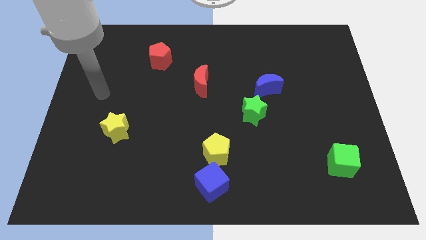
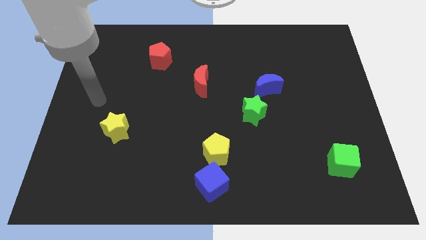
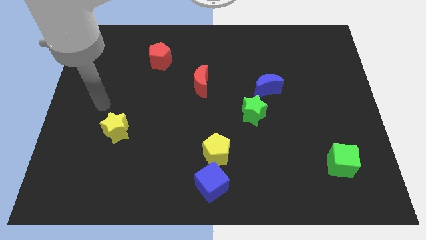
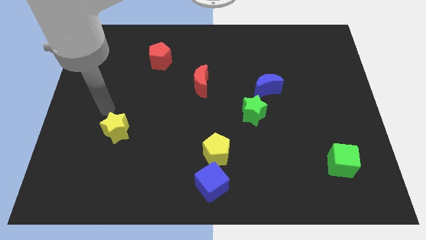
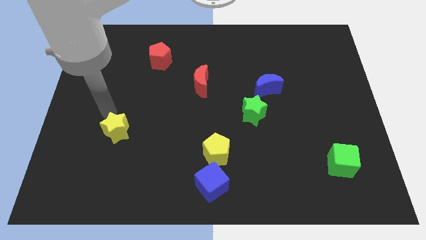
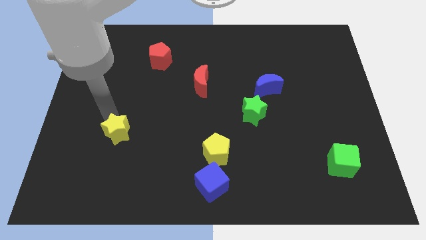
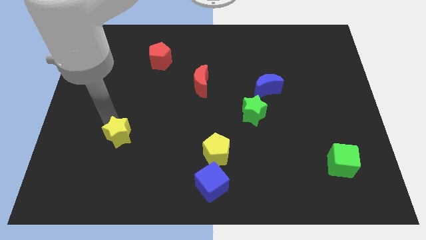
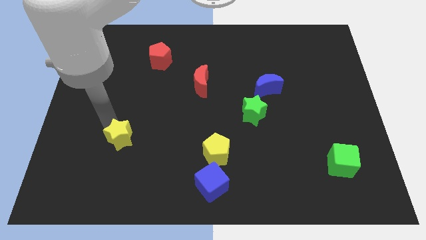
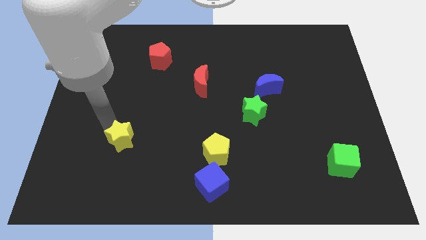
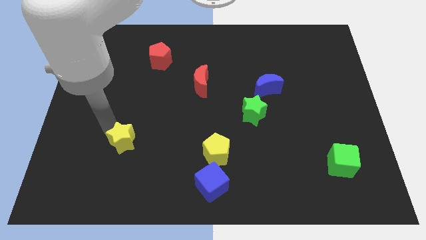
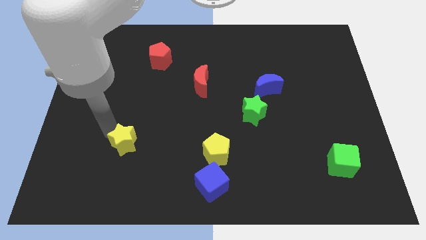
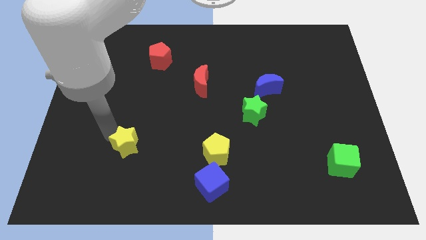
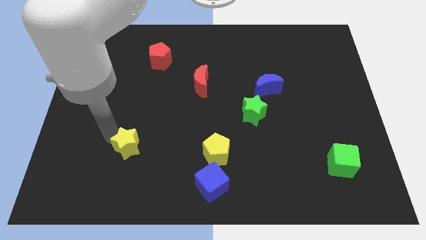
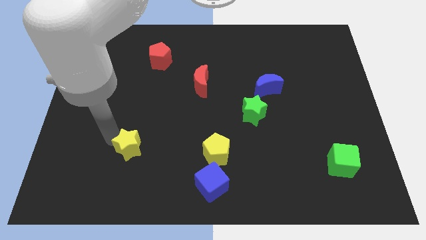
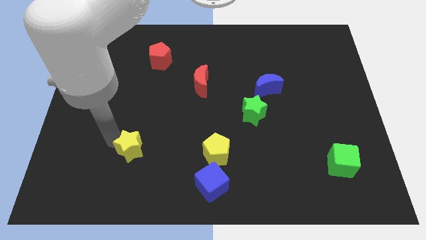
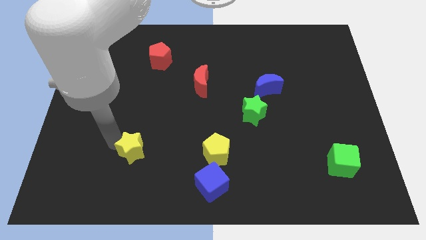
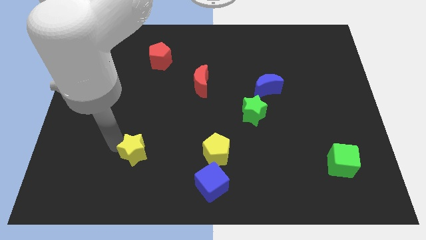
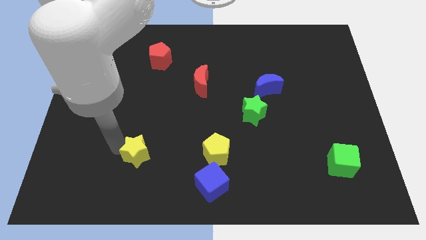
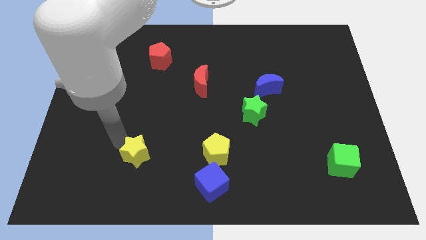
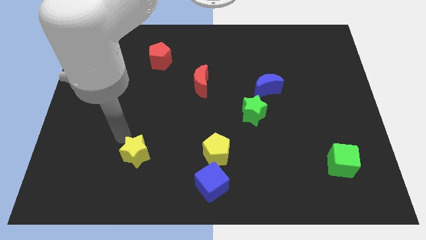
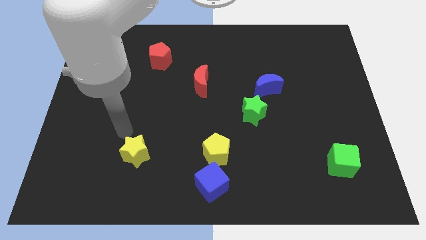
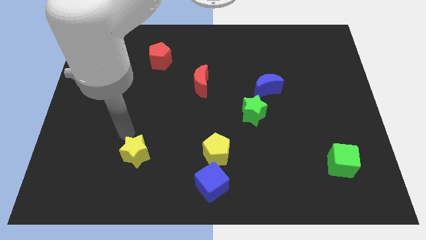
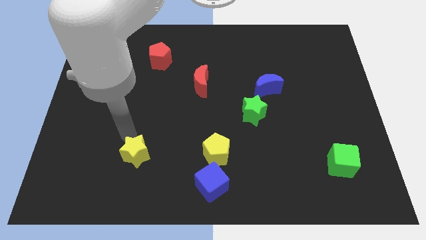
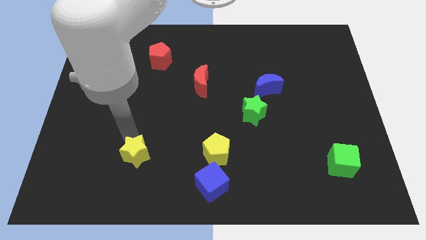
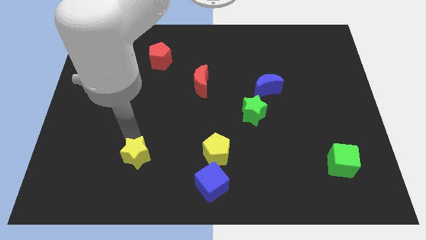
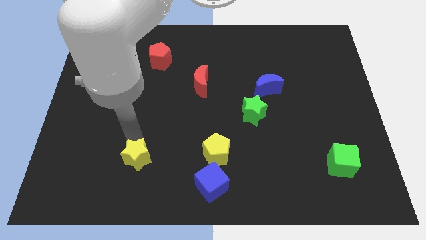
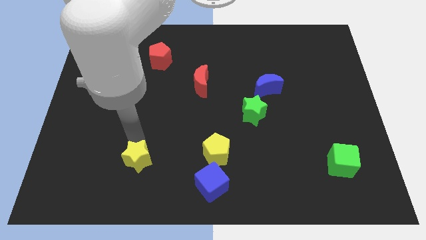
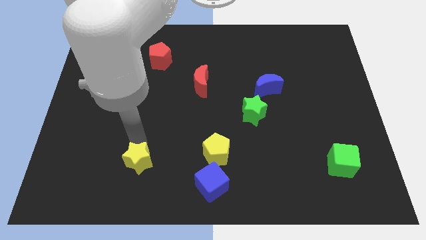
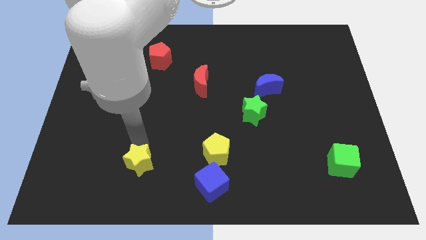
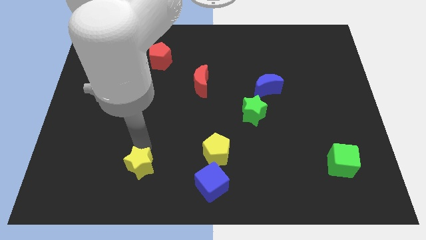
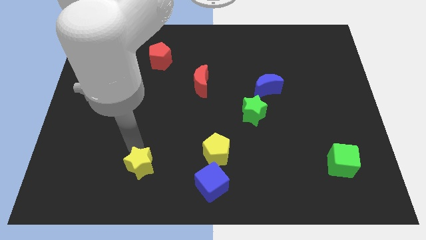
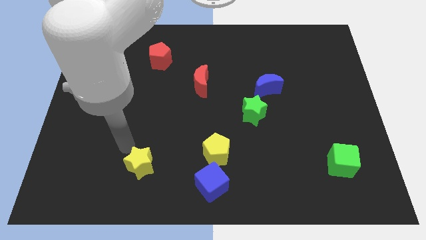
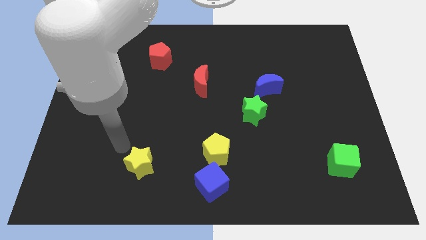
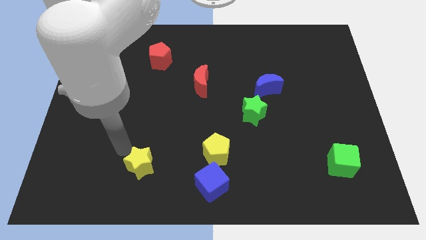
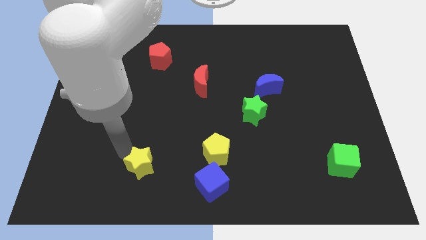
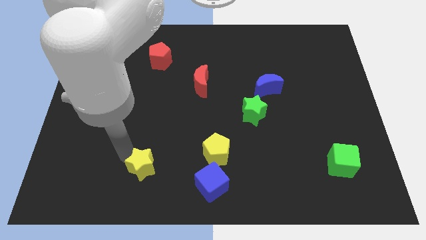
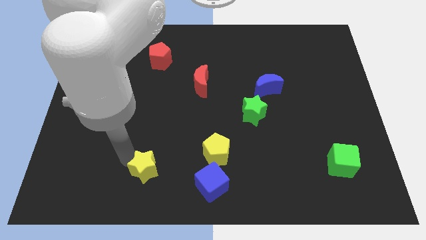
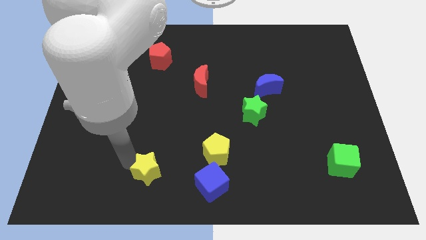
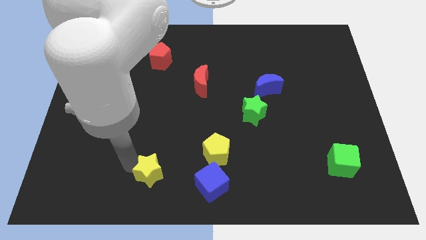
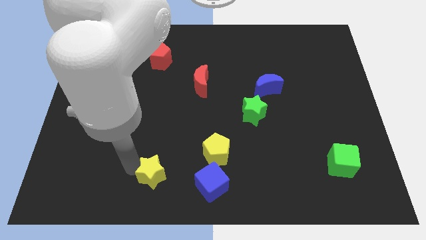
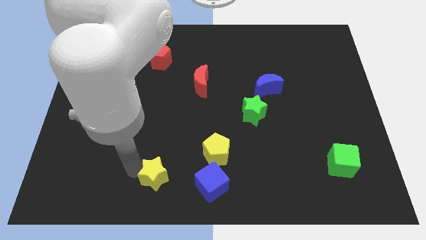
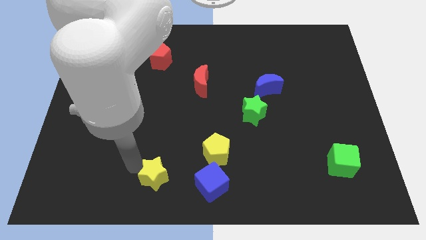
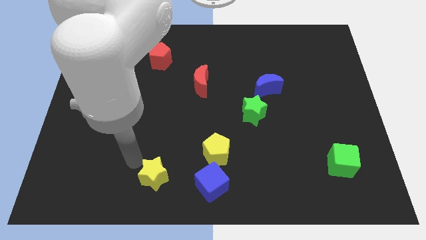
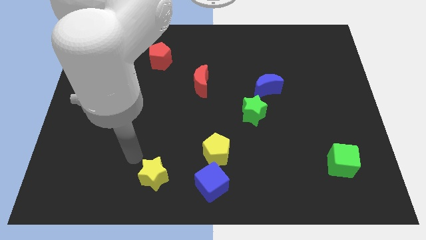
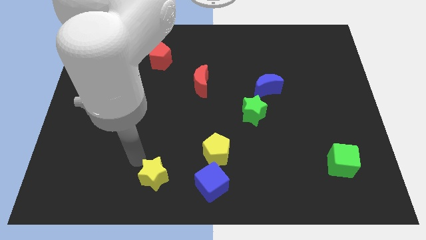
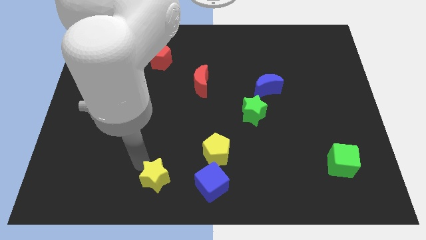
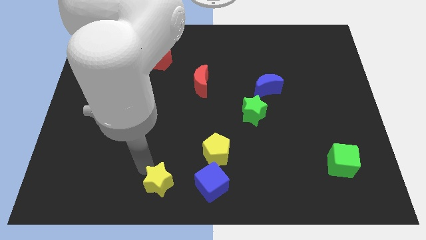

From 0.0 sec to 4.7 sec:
put the yellow star to the bottom side

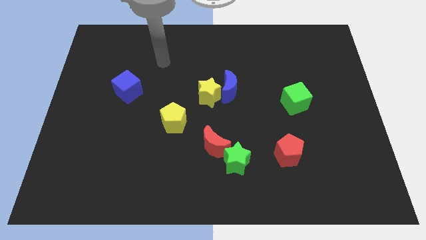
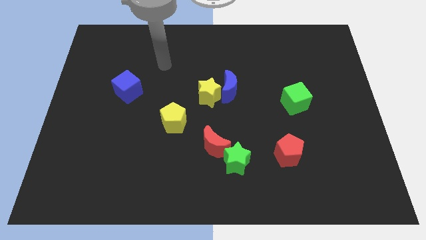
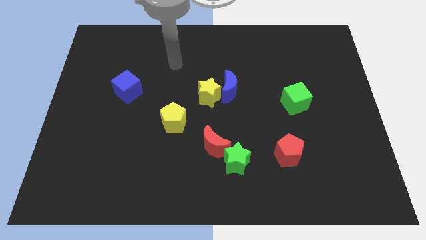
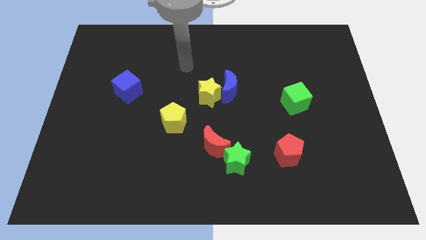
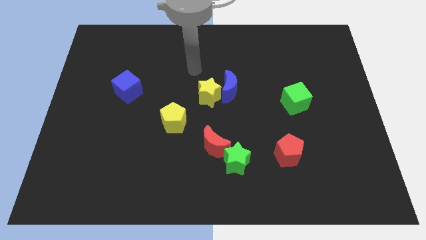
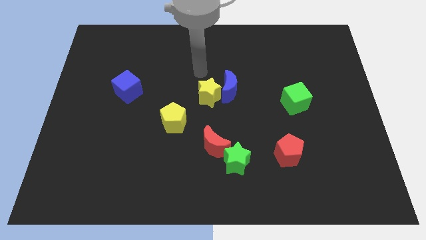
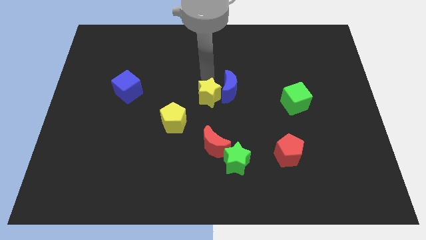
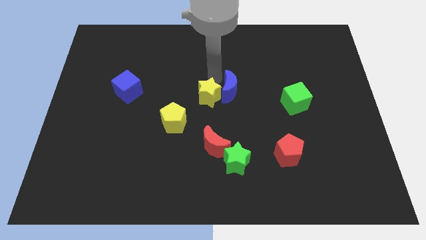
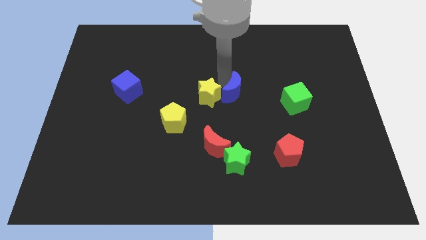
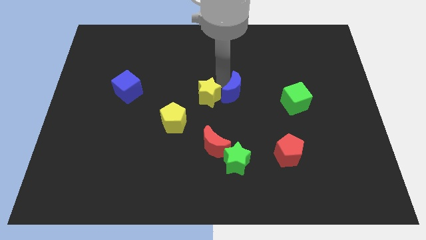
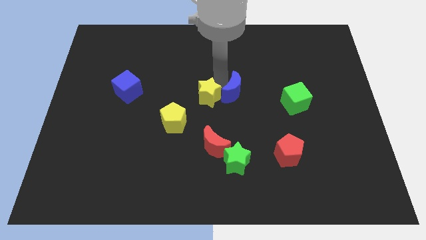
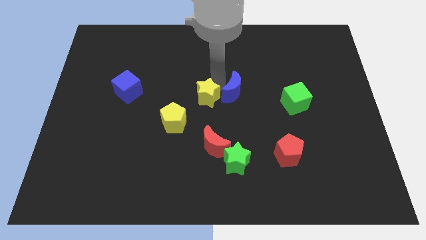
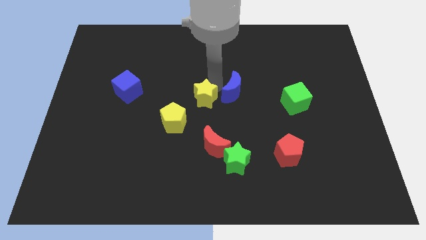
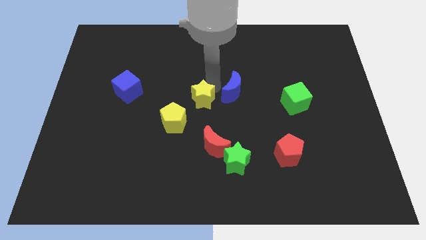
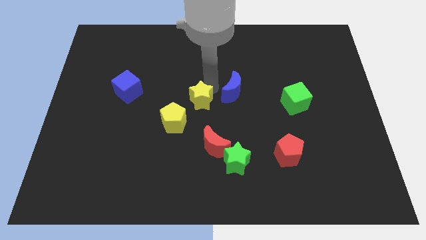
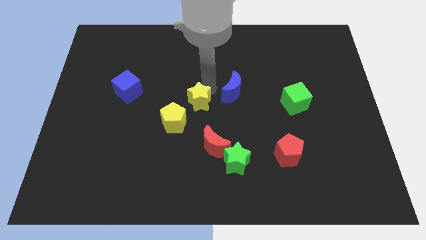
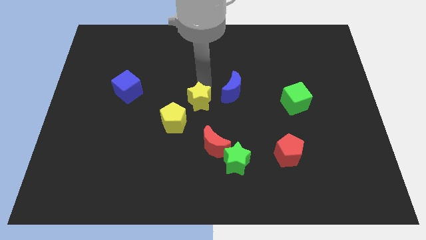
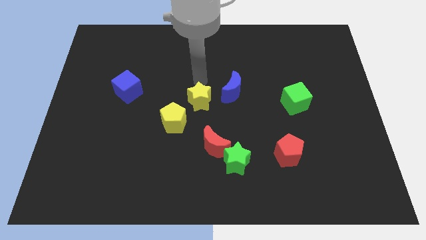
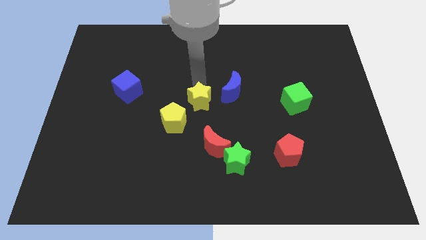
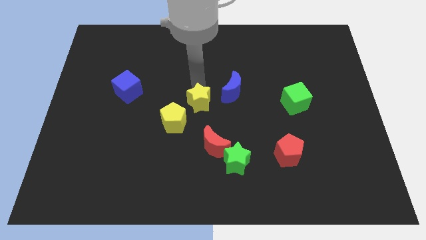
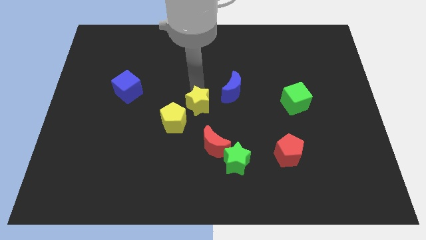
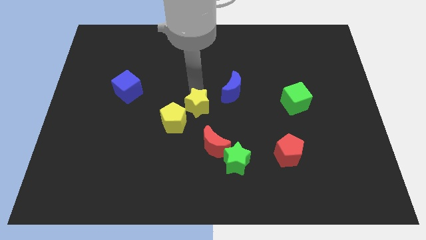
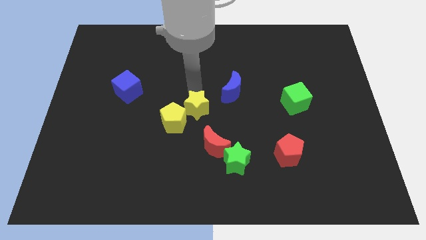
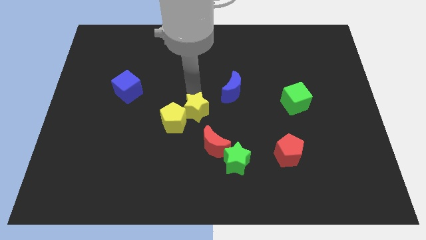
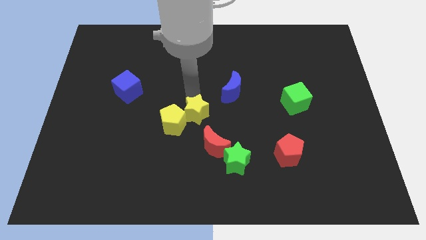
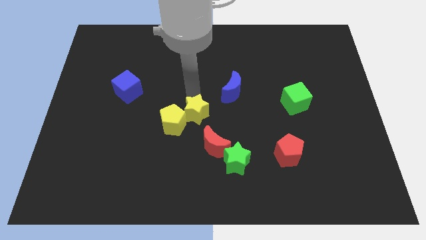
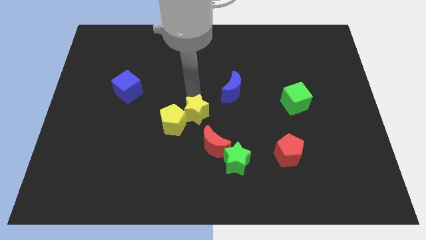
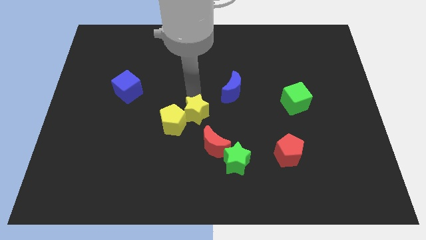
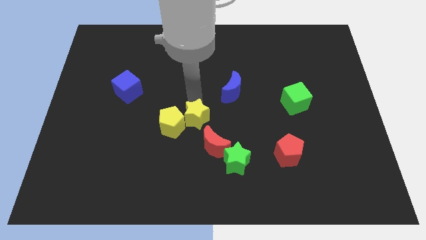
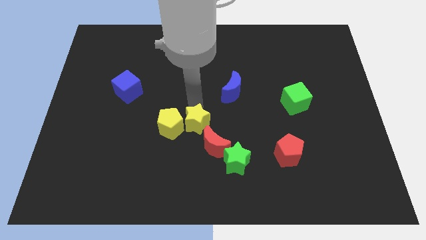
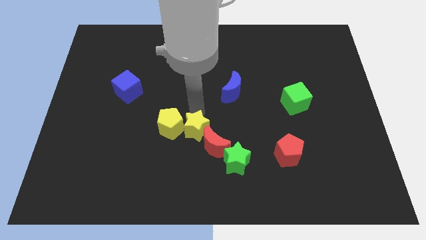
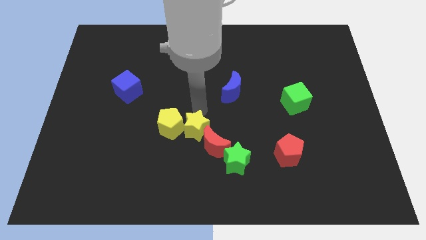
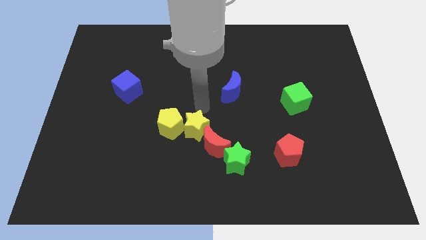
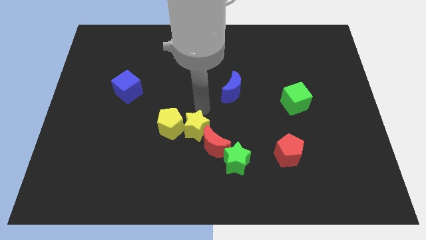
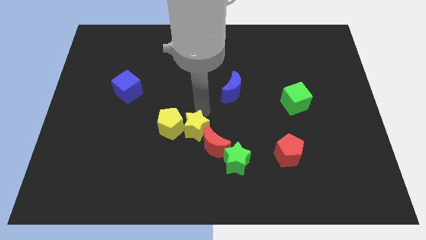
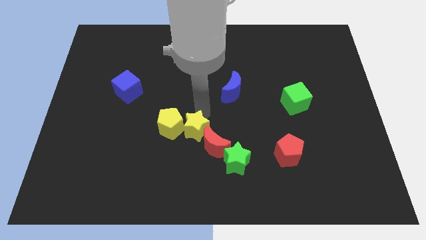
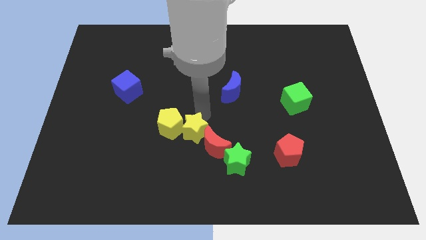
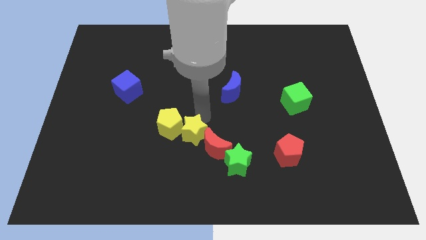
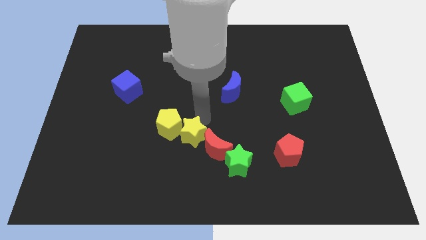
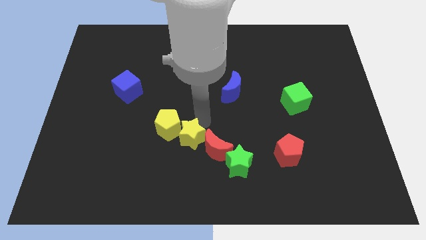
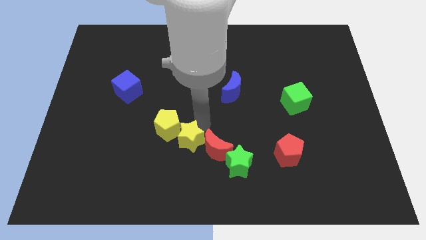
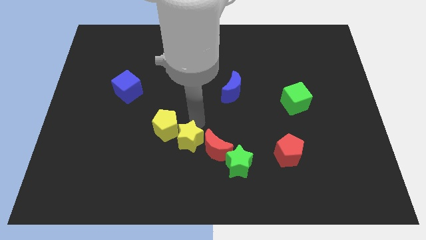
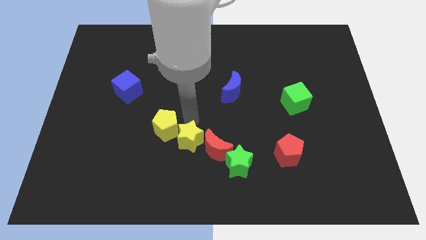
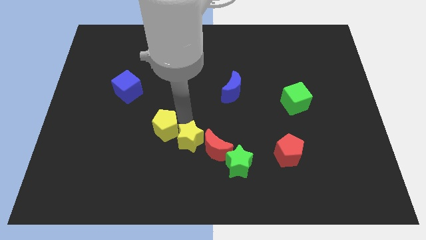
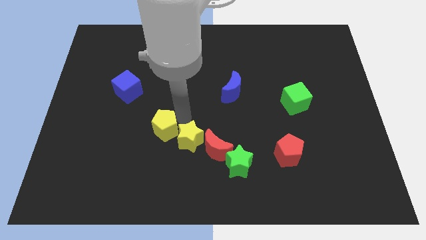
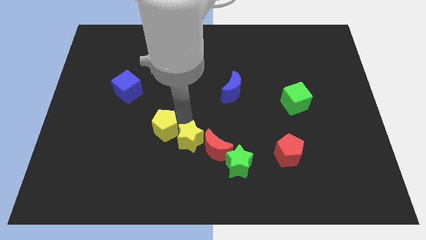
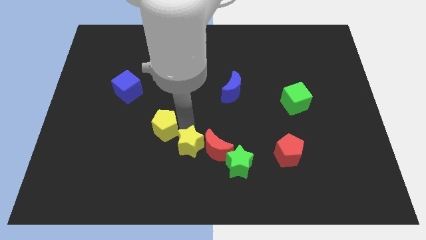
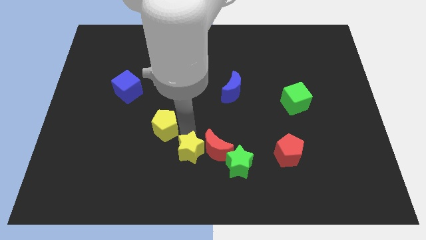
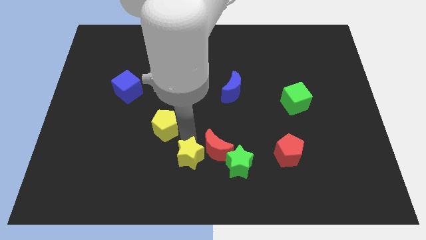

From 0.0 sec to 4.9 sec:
slide the yellow star to the bottom side
